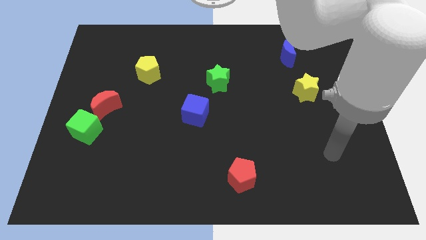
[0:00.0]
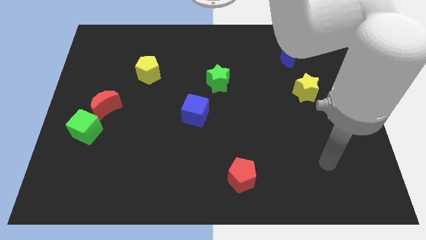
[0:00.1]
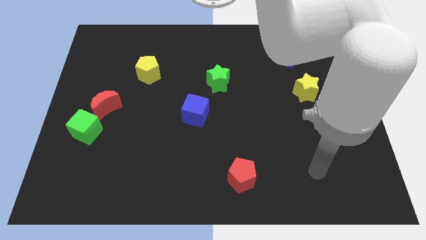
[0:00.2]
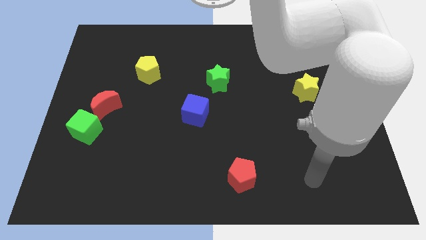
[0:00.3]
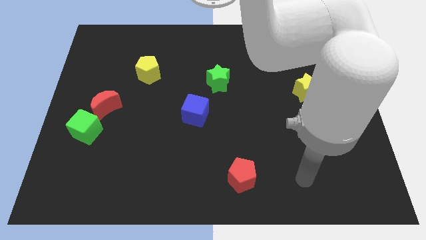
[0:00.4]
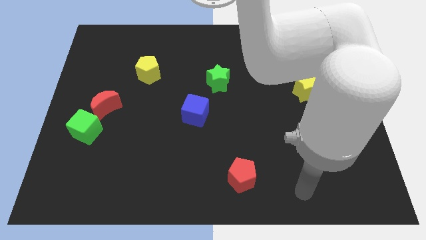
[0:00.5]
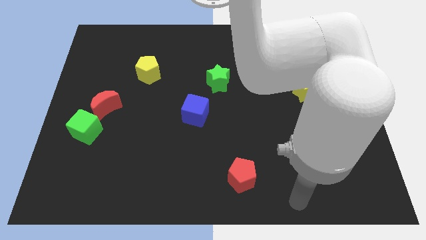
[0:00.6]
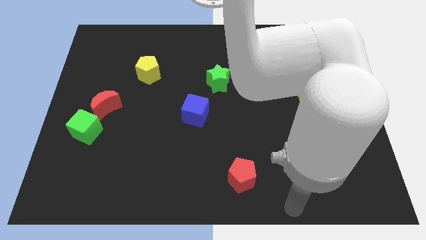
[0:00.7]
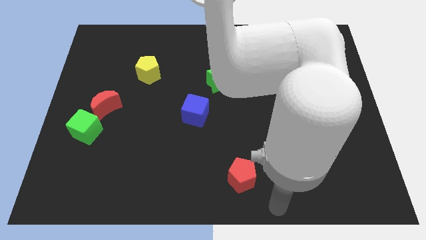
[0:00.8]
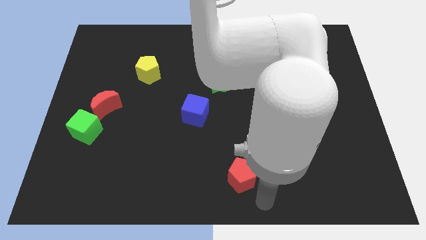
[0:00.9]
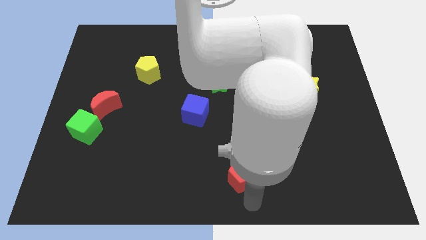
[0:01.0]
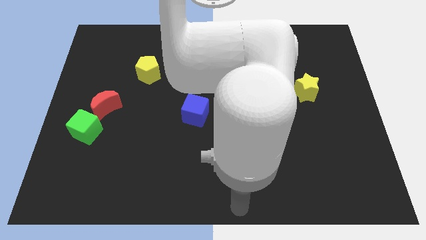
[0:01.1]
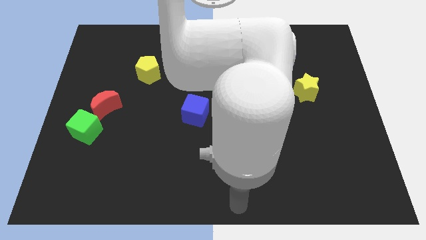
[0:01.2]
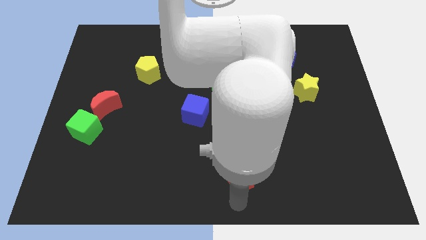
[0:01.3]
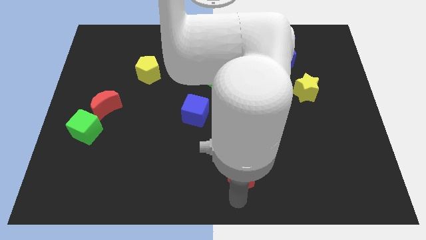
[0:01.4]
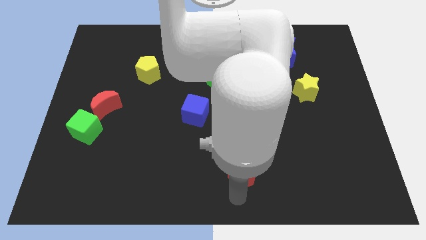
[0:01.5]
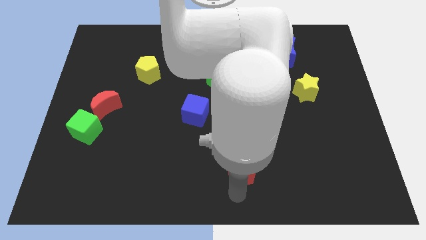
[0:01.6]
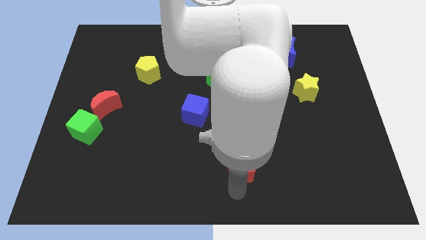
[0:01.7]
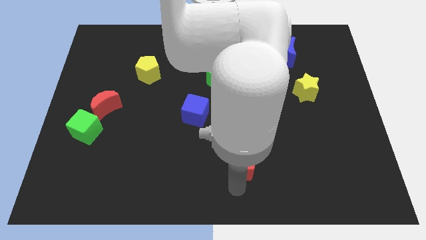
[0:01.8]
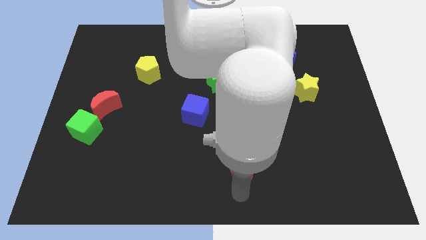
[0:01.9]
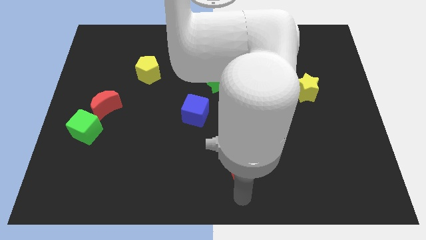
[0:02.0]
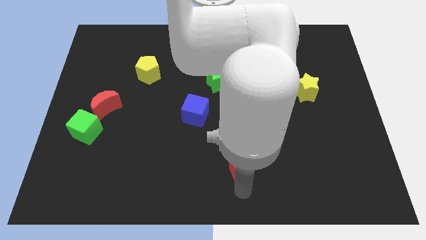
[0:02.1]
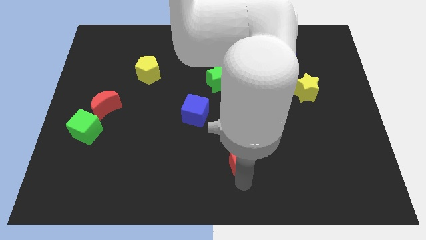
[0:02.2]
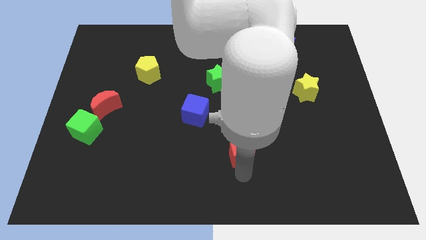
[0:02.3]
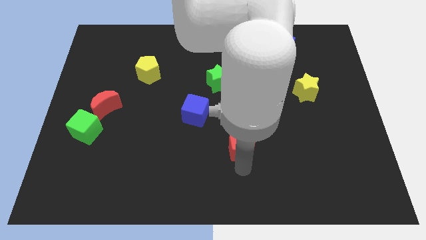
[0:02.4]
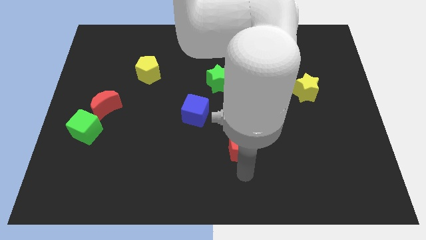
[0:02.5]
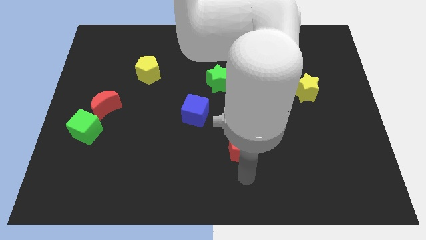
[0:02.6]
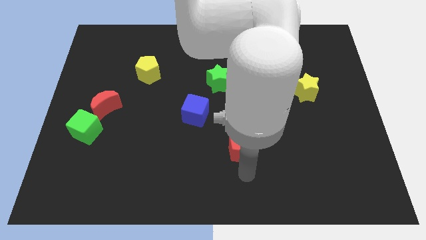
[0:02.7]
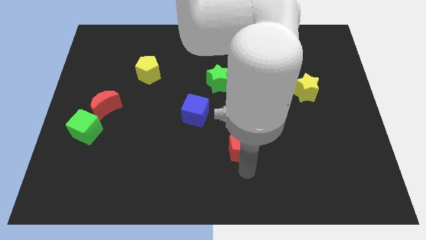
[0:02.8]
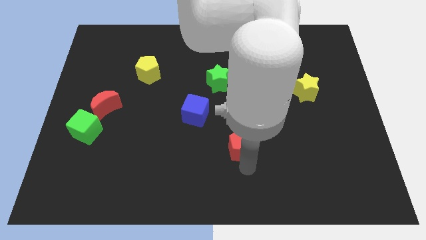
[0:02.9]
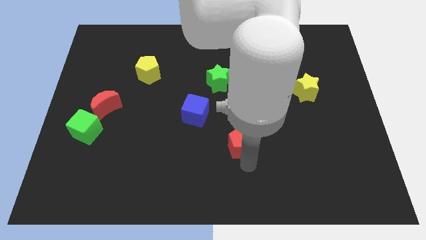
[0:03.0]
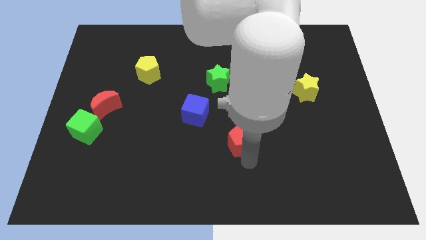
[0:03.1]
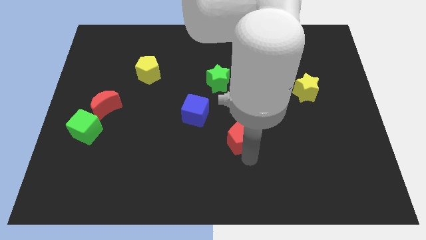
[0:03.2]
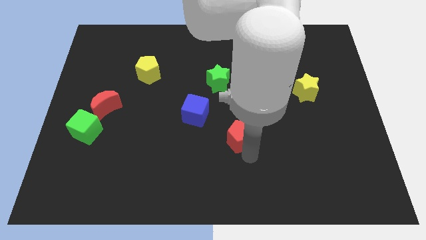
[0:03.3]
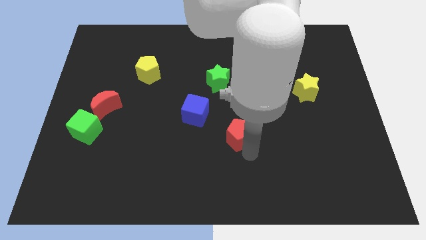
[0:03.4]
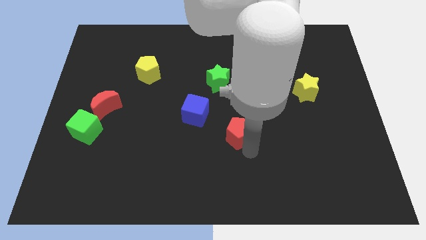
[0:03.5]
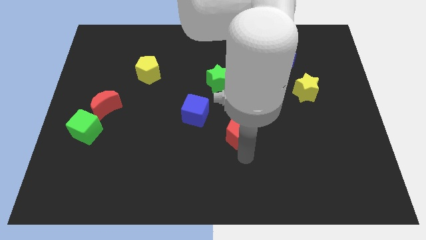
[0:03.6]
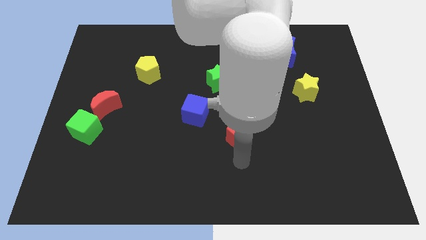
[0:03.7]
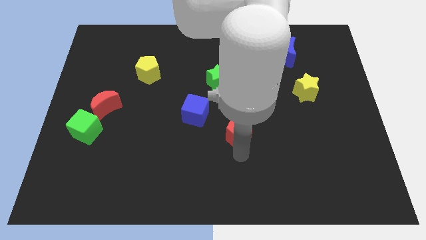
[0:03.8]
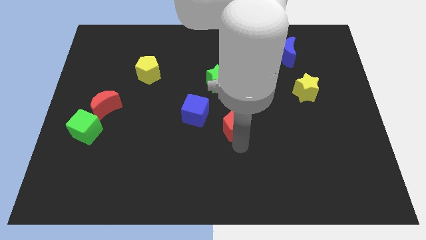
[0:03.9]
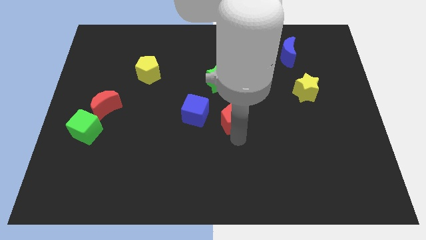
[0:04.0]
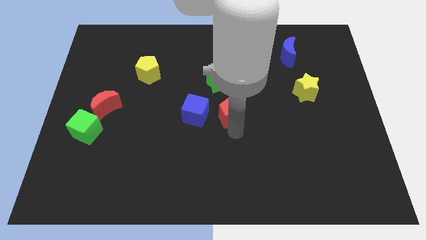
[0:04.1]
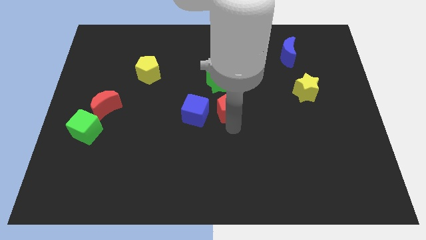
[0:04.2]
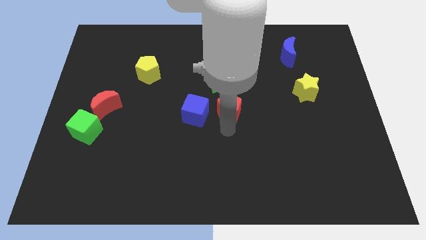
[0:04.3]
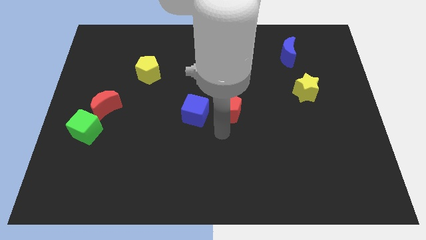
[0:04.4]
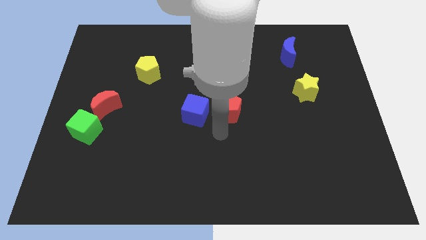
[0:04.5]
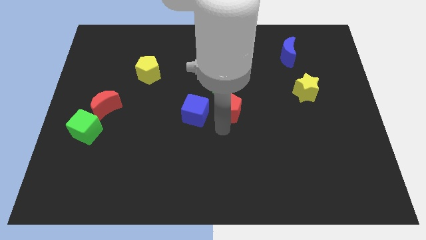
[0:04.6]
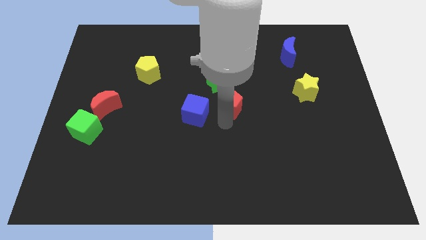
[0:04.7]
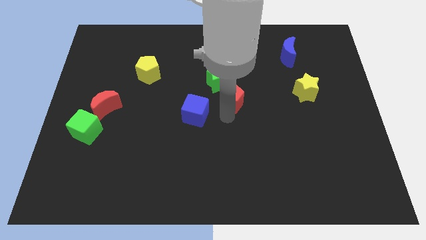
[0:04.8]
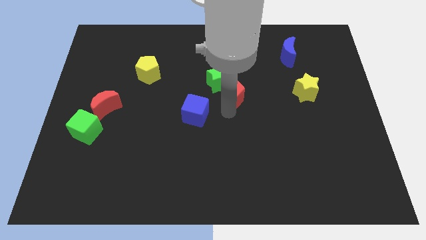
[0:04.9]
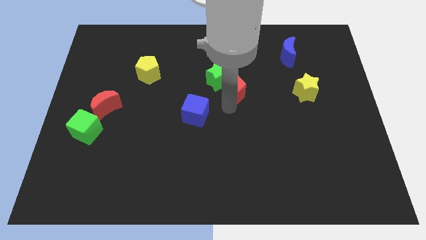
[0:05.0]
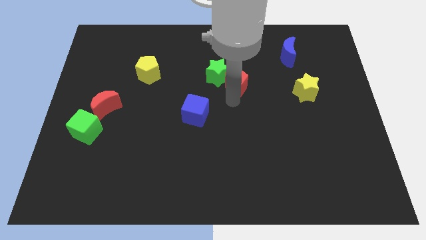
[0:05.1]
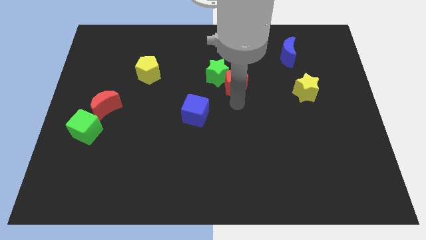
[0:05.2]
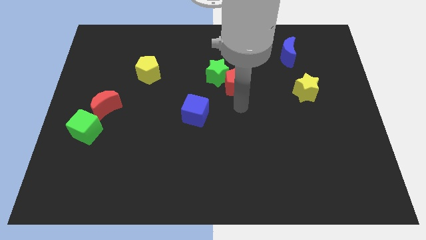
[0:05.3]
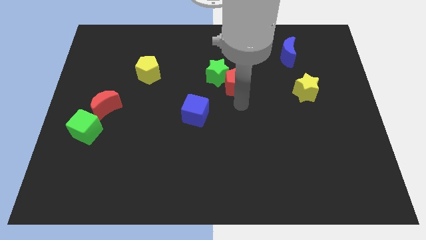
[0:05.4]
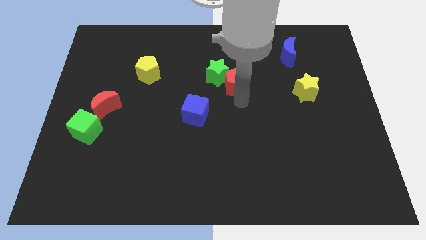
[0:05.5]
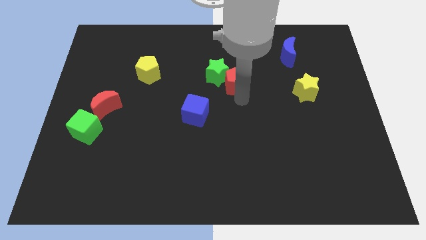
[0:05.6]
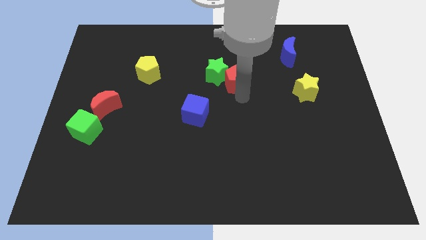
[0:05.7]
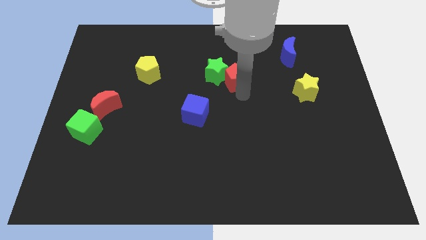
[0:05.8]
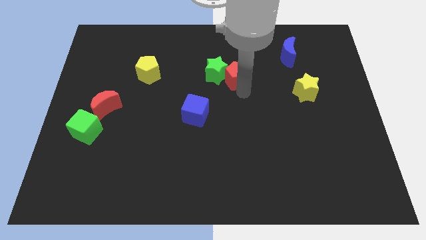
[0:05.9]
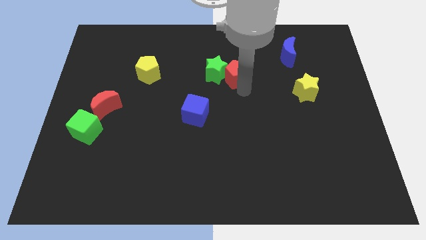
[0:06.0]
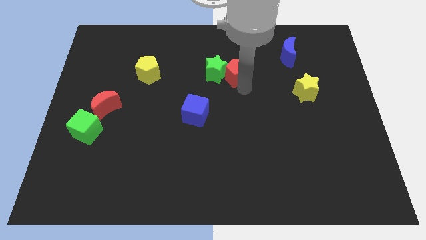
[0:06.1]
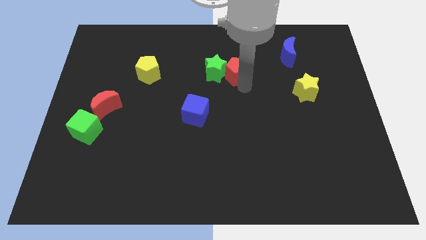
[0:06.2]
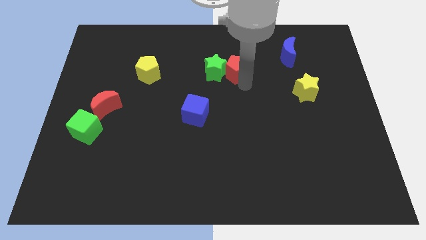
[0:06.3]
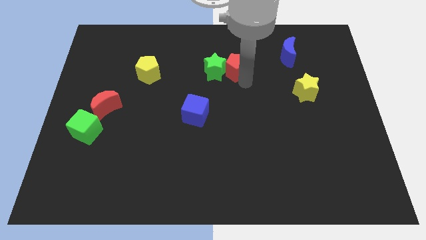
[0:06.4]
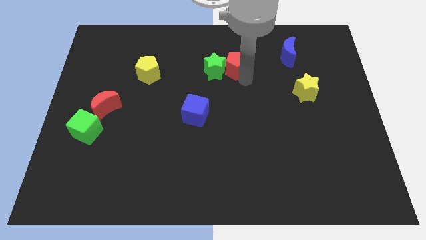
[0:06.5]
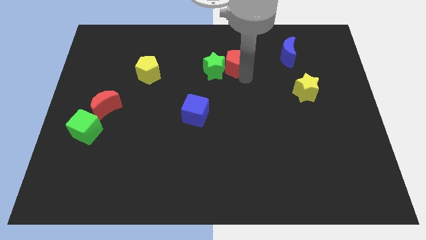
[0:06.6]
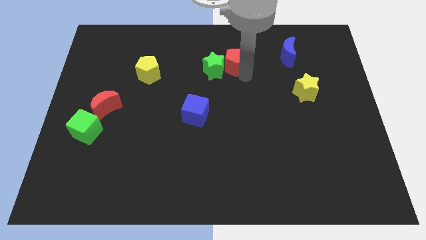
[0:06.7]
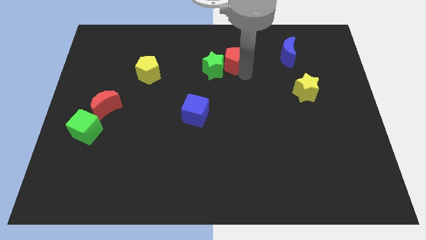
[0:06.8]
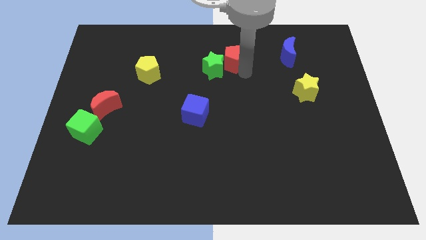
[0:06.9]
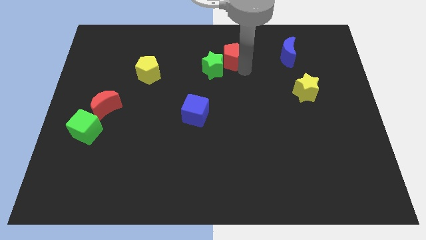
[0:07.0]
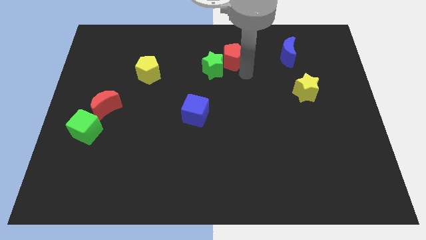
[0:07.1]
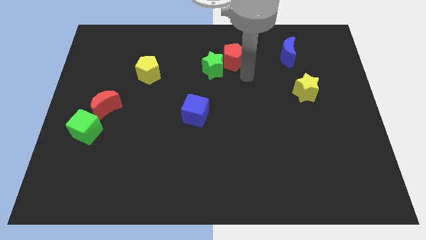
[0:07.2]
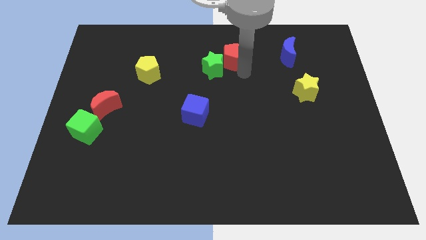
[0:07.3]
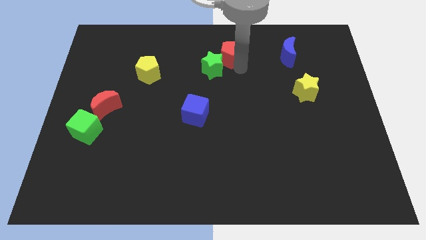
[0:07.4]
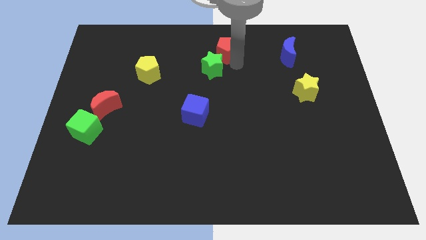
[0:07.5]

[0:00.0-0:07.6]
push the red pentagon to the top
